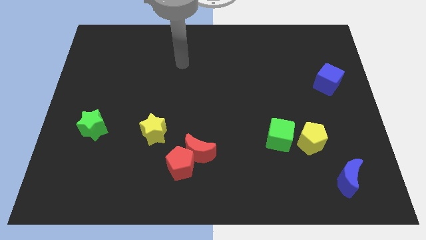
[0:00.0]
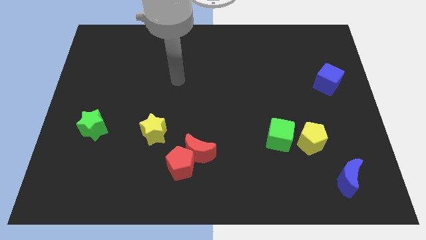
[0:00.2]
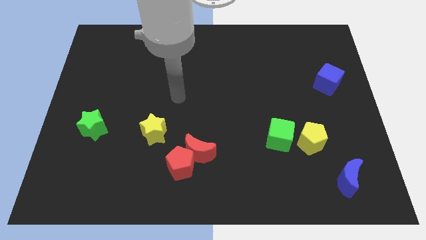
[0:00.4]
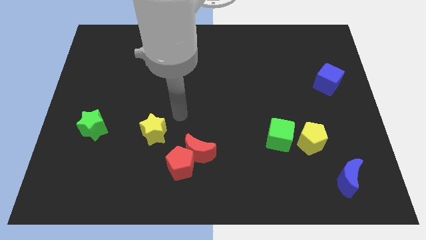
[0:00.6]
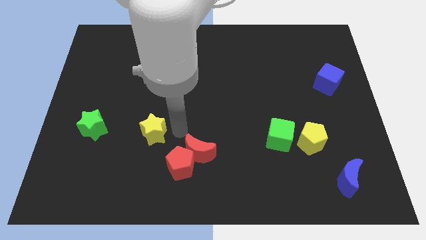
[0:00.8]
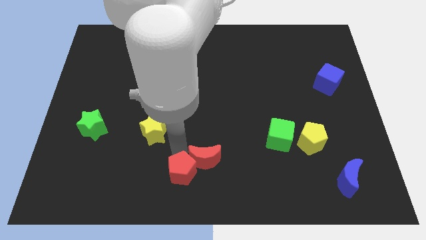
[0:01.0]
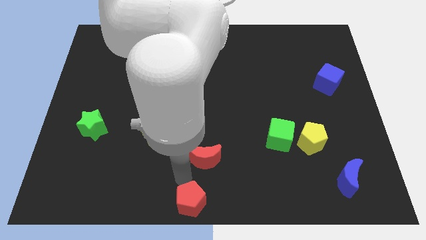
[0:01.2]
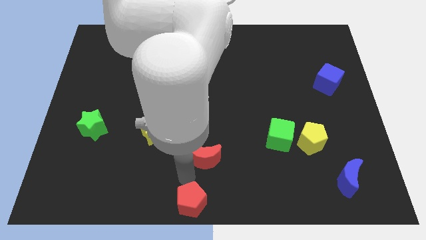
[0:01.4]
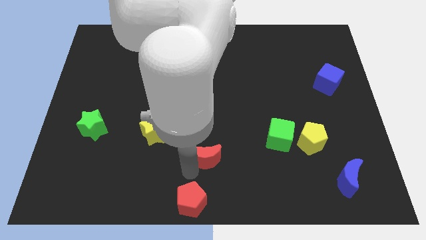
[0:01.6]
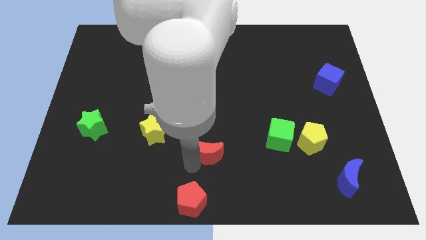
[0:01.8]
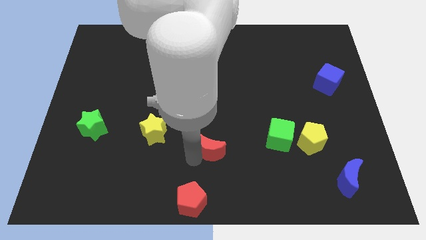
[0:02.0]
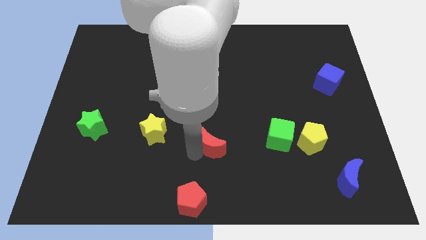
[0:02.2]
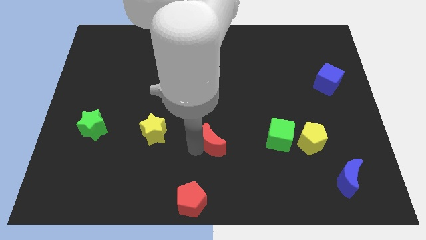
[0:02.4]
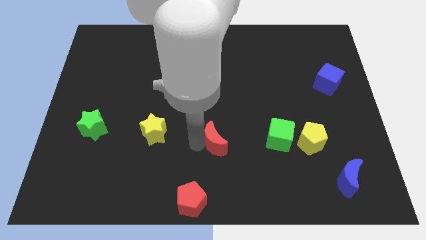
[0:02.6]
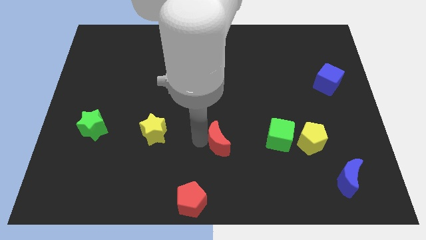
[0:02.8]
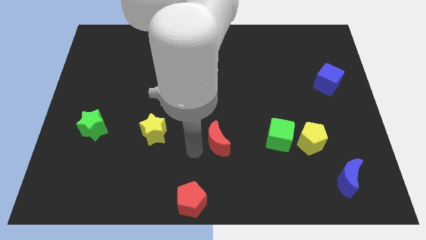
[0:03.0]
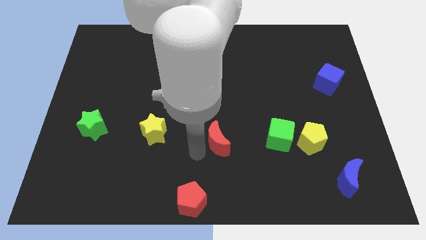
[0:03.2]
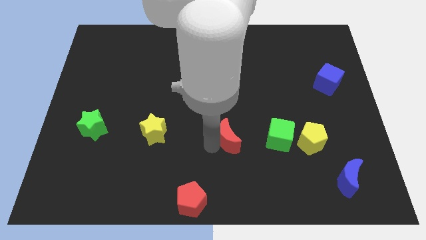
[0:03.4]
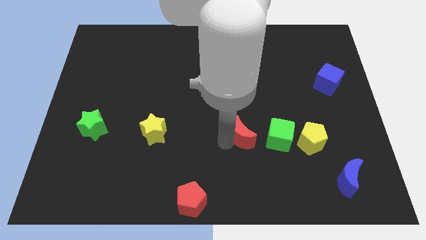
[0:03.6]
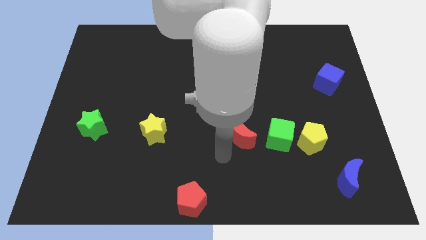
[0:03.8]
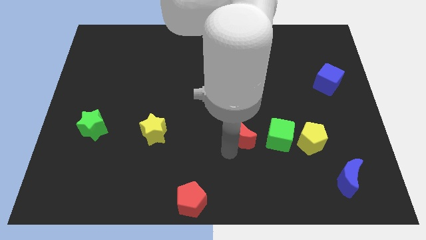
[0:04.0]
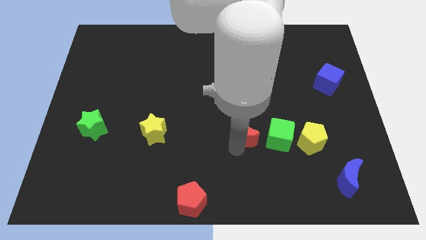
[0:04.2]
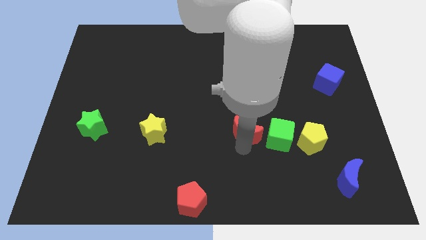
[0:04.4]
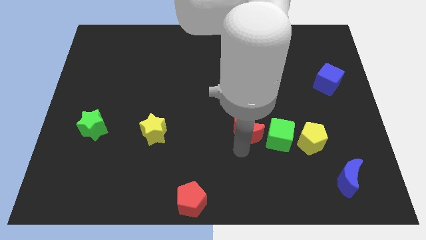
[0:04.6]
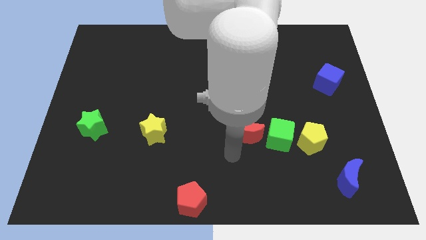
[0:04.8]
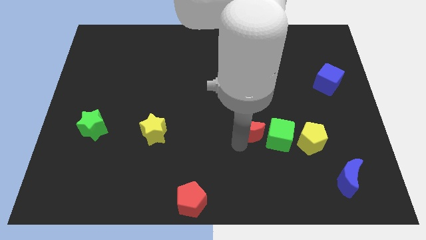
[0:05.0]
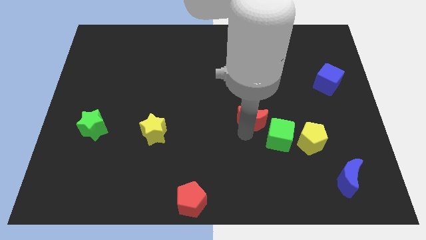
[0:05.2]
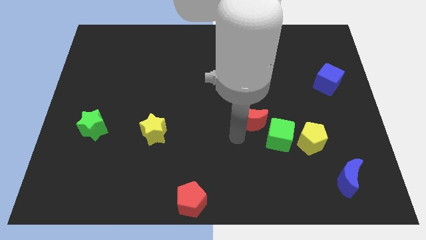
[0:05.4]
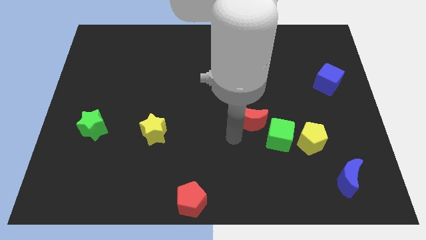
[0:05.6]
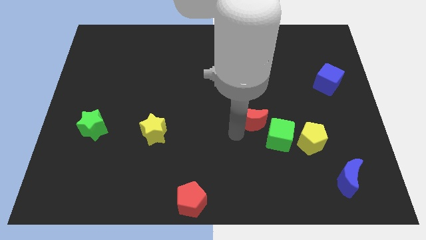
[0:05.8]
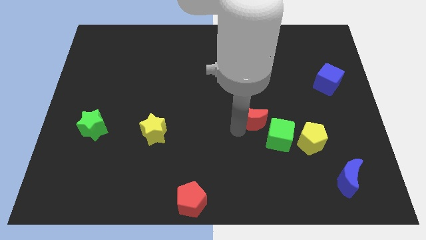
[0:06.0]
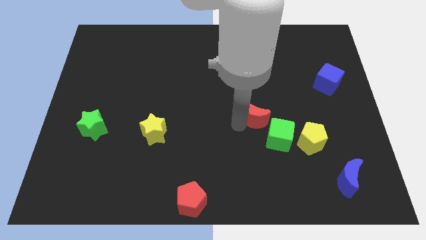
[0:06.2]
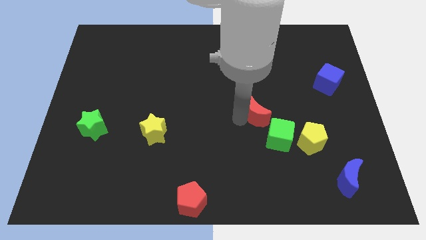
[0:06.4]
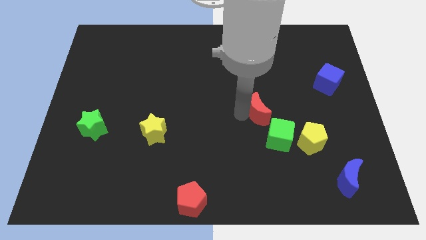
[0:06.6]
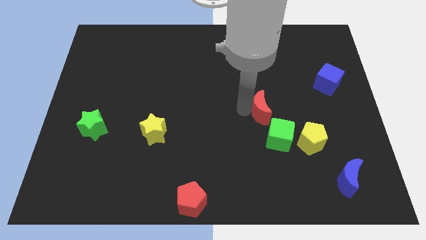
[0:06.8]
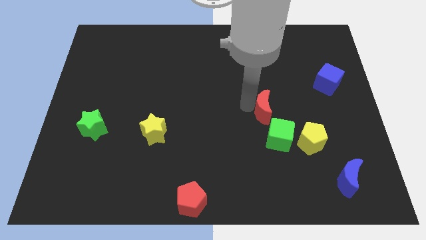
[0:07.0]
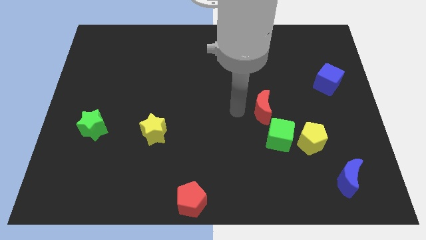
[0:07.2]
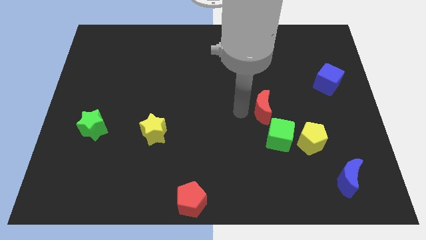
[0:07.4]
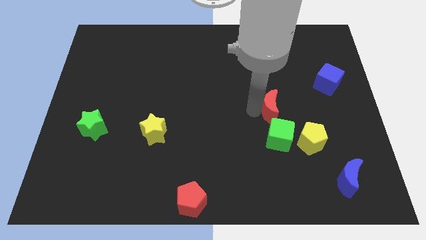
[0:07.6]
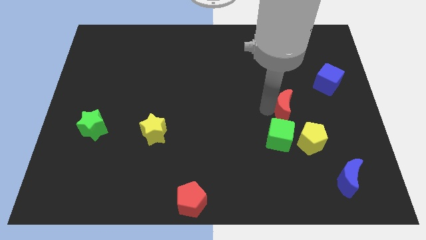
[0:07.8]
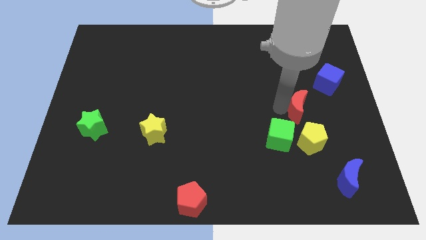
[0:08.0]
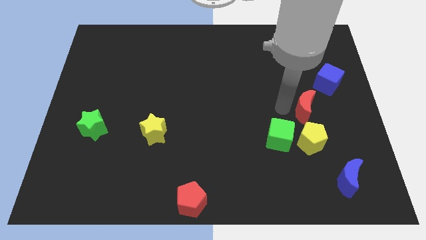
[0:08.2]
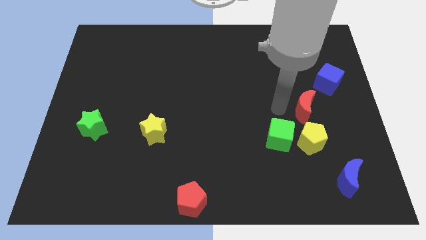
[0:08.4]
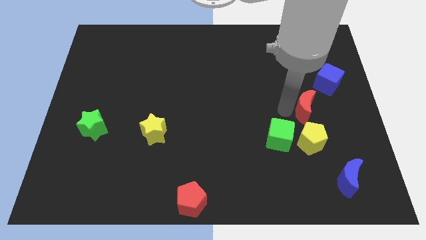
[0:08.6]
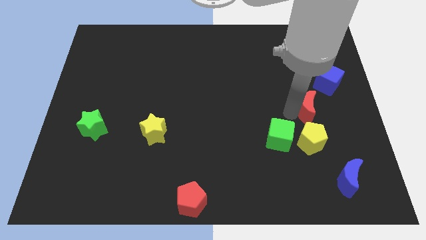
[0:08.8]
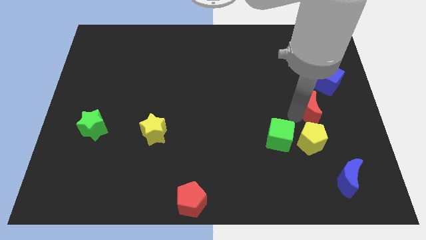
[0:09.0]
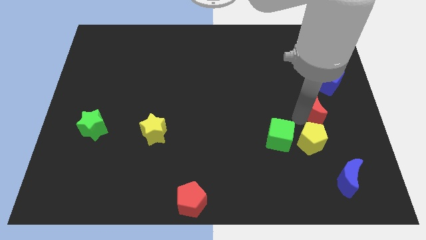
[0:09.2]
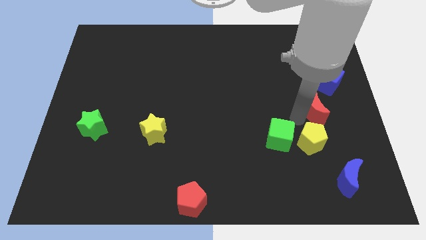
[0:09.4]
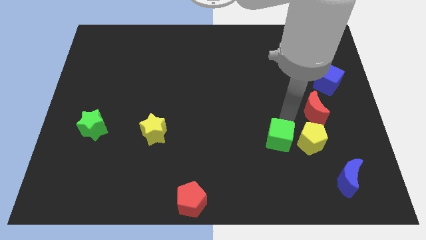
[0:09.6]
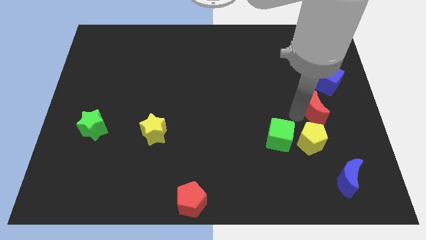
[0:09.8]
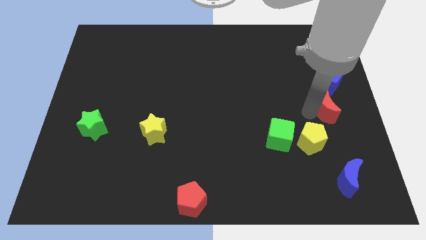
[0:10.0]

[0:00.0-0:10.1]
put the red moon to the right side

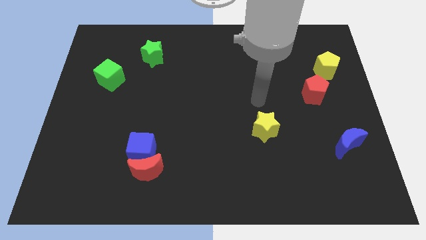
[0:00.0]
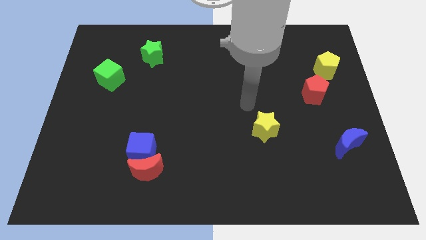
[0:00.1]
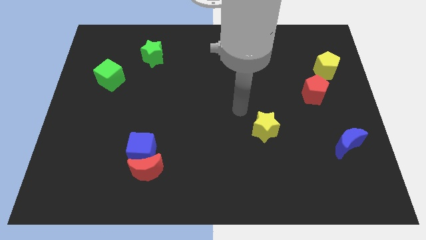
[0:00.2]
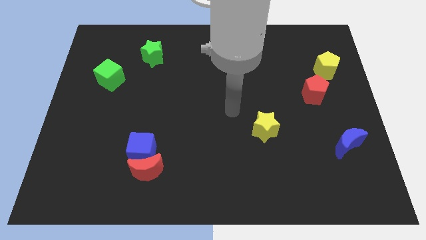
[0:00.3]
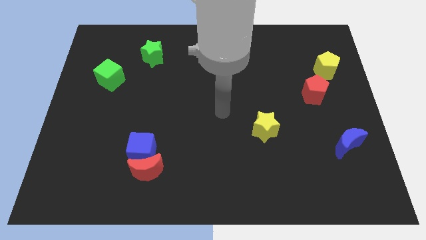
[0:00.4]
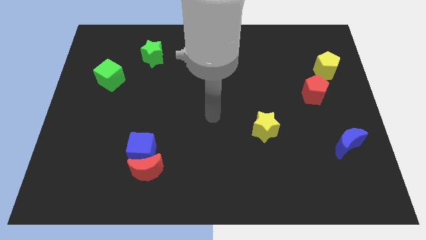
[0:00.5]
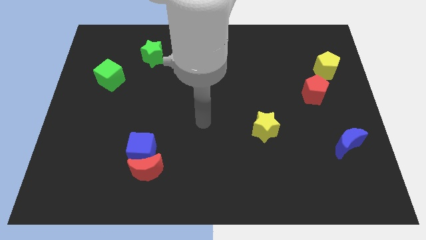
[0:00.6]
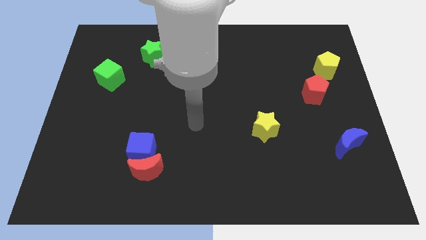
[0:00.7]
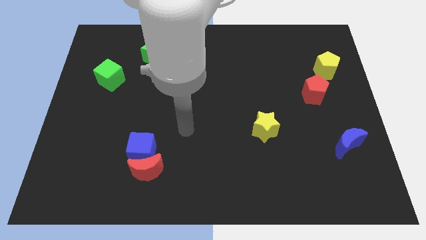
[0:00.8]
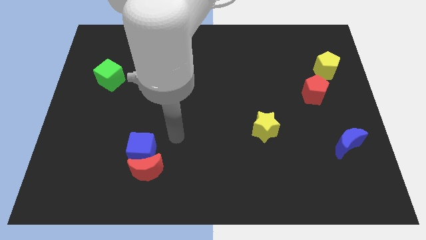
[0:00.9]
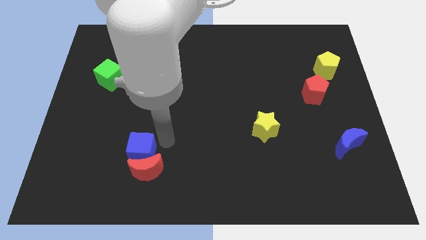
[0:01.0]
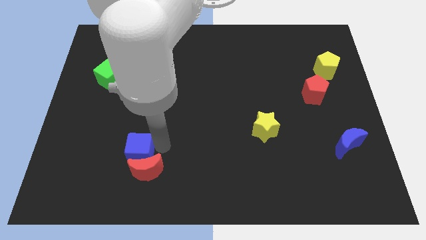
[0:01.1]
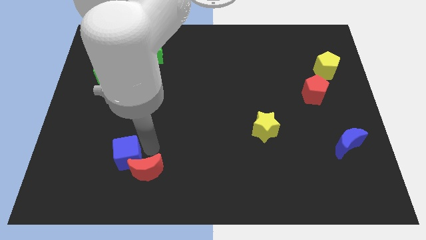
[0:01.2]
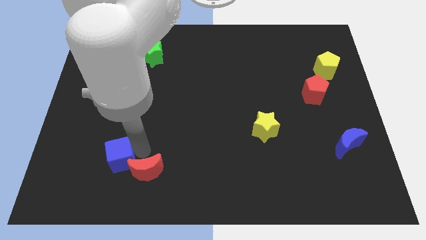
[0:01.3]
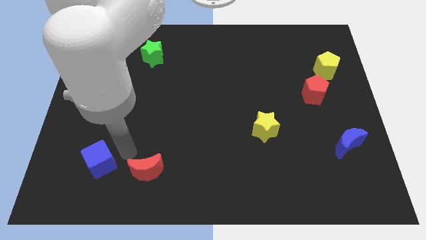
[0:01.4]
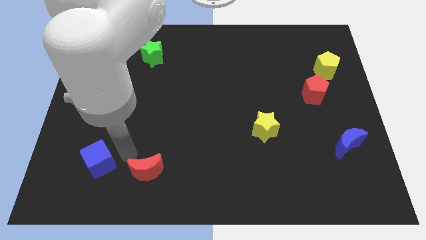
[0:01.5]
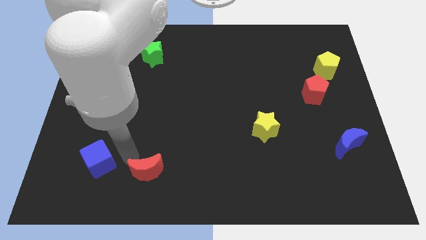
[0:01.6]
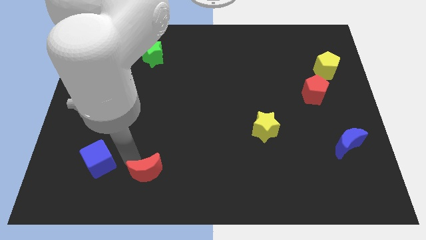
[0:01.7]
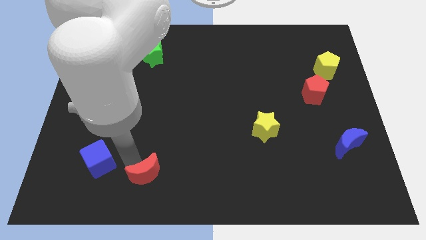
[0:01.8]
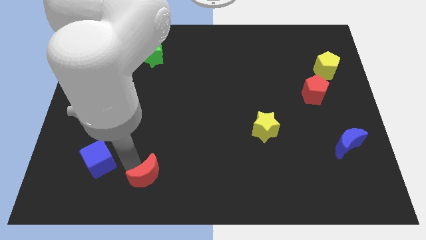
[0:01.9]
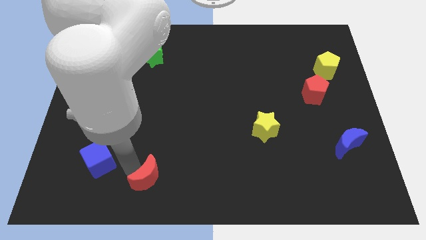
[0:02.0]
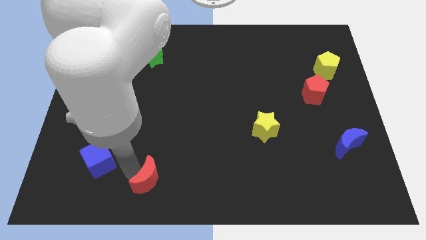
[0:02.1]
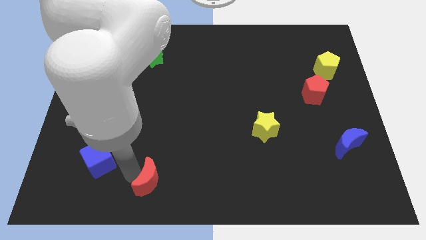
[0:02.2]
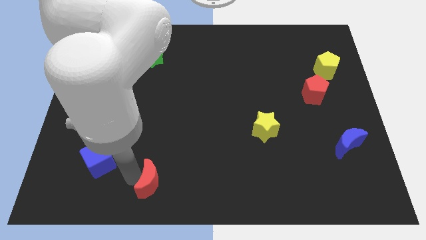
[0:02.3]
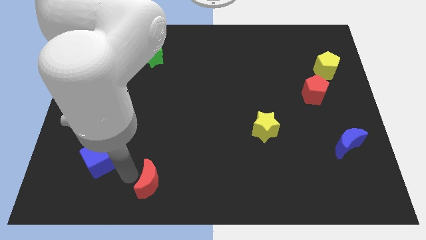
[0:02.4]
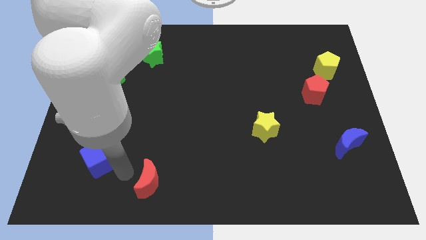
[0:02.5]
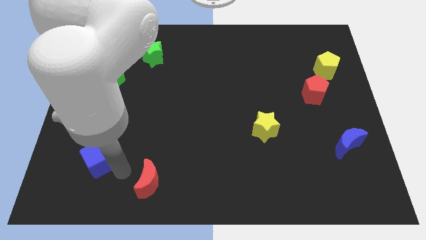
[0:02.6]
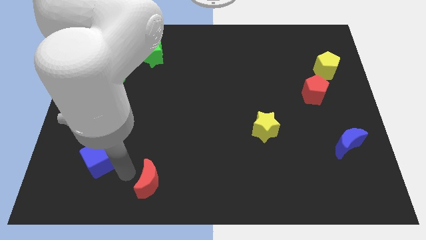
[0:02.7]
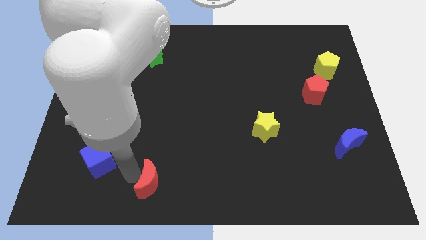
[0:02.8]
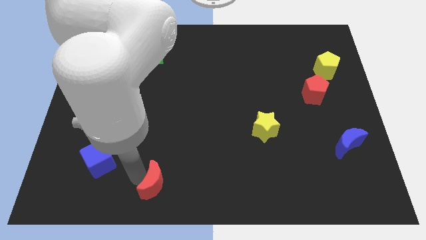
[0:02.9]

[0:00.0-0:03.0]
move the red moon to the bottom side
